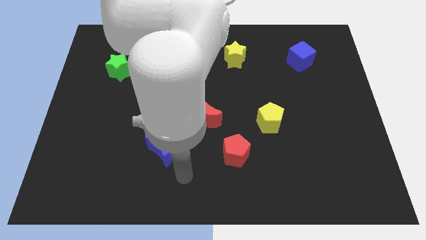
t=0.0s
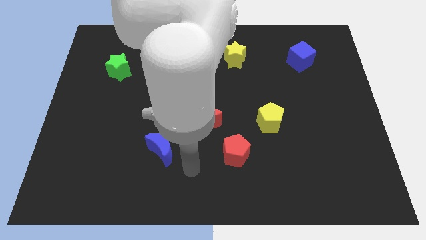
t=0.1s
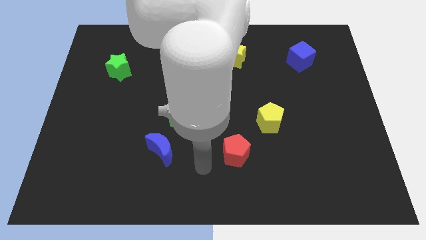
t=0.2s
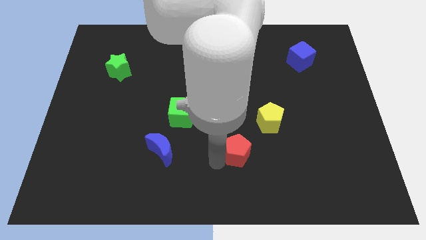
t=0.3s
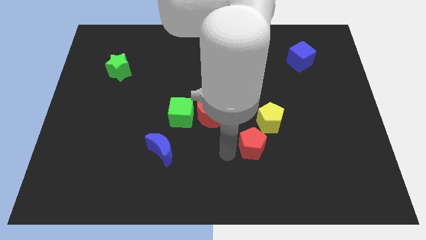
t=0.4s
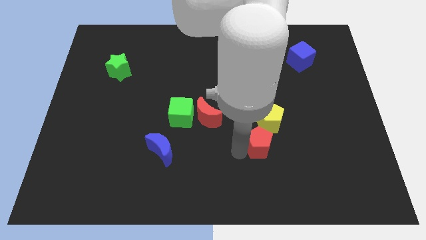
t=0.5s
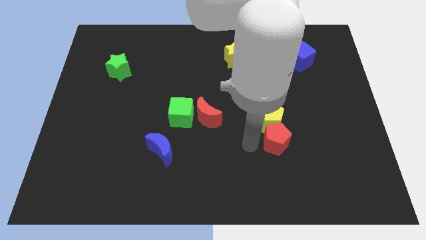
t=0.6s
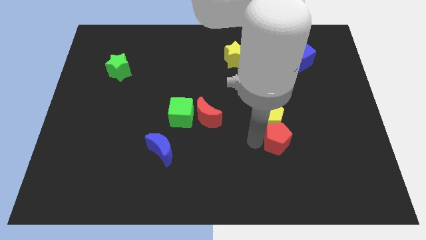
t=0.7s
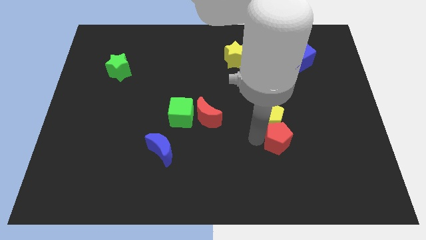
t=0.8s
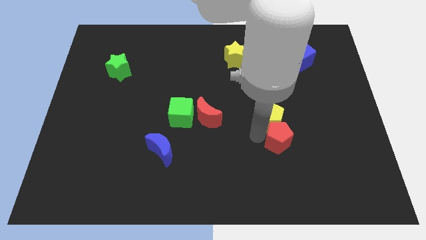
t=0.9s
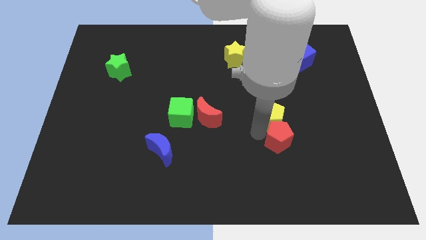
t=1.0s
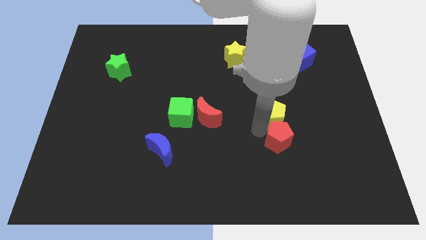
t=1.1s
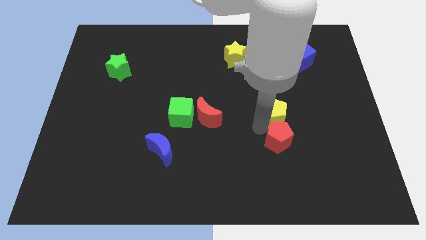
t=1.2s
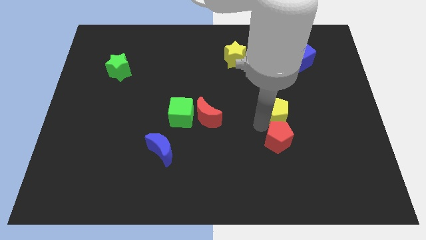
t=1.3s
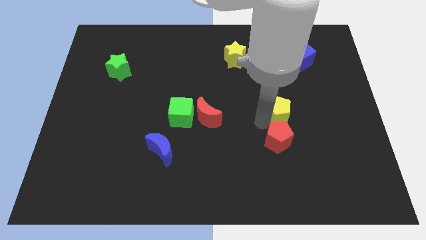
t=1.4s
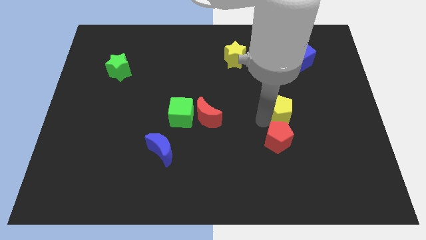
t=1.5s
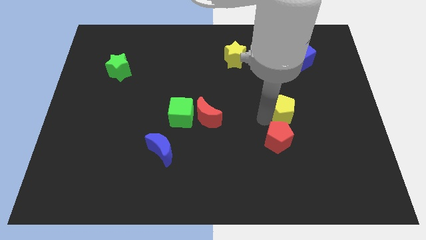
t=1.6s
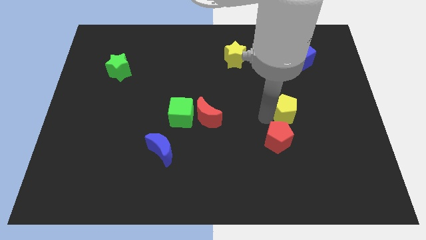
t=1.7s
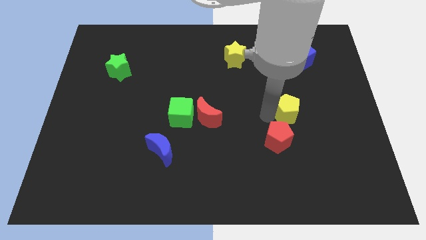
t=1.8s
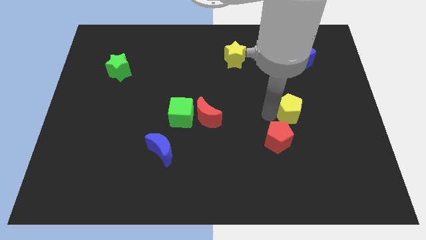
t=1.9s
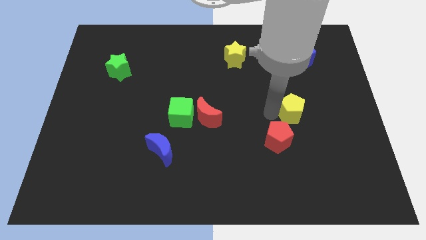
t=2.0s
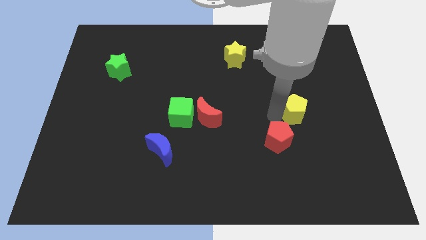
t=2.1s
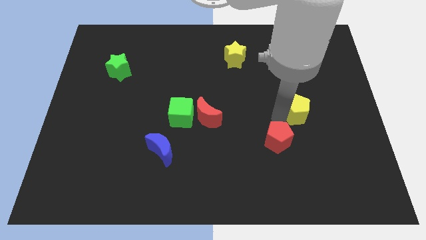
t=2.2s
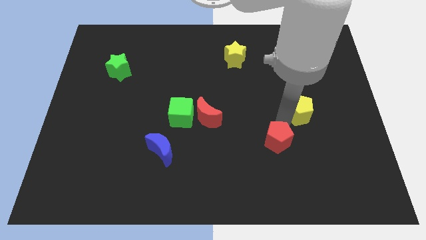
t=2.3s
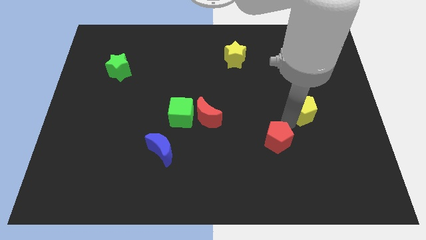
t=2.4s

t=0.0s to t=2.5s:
slightly slide the yellow pentagon up and then to the right

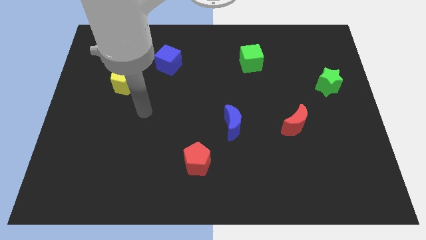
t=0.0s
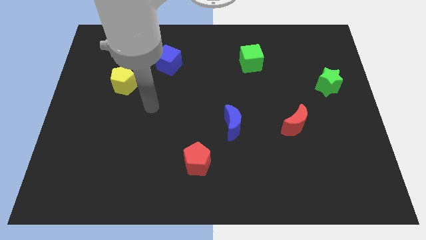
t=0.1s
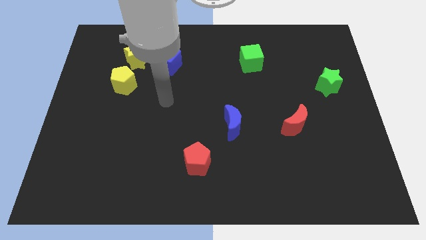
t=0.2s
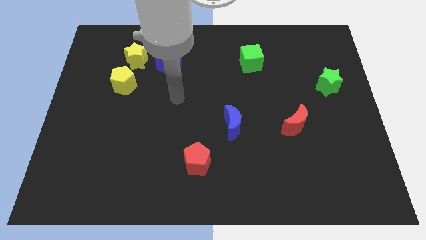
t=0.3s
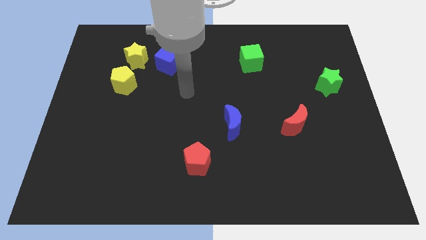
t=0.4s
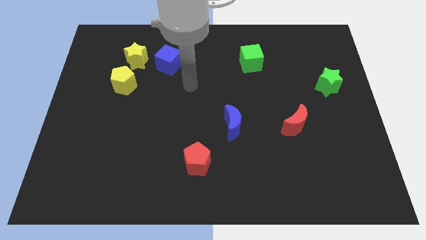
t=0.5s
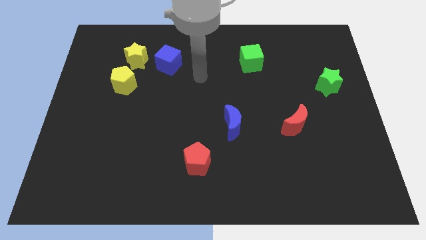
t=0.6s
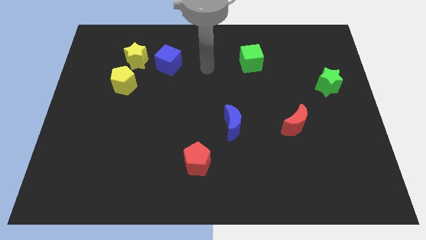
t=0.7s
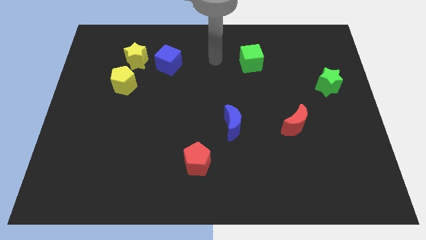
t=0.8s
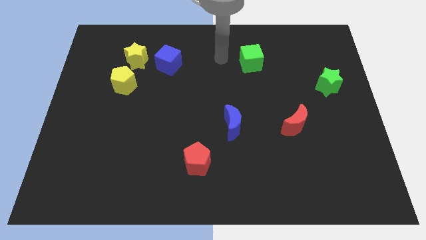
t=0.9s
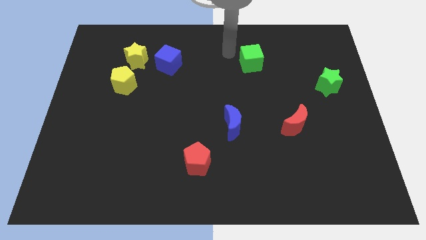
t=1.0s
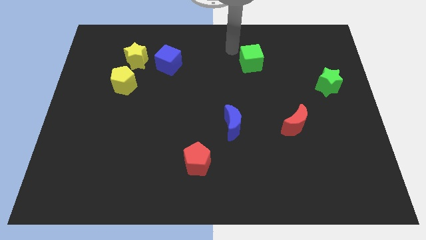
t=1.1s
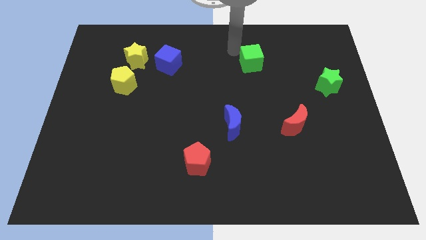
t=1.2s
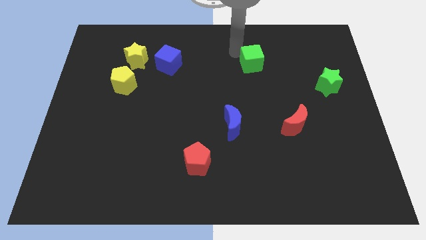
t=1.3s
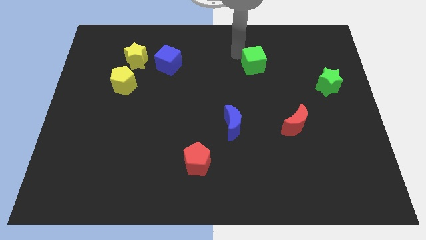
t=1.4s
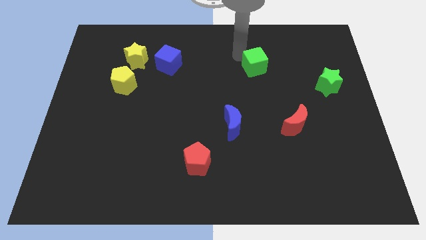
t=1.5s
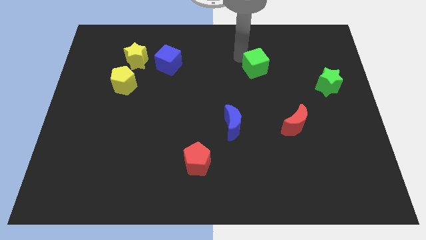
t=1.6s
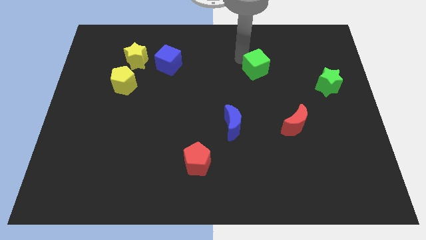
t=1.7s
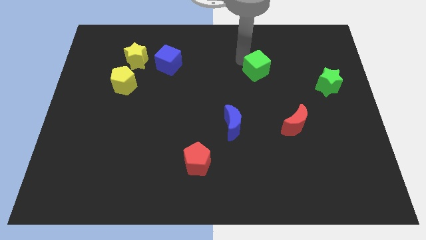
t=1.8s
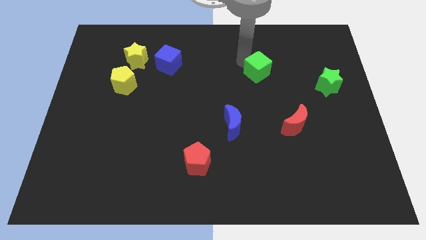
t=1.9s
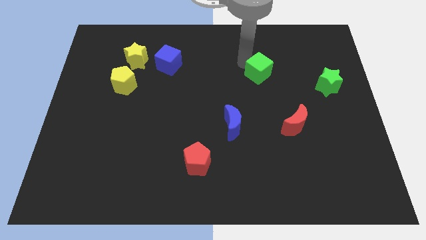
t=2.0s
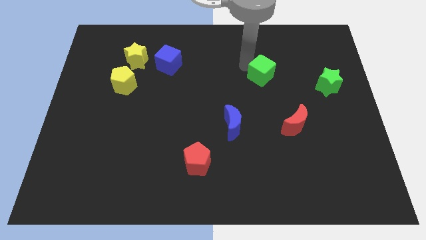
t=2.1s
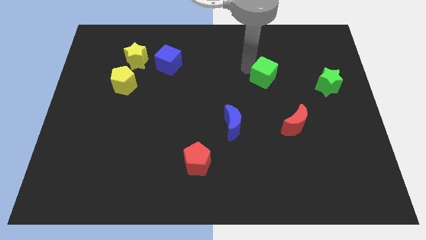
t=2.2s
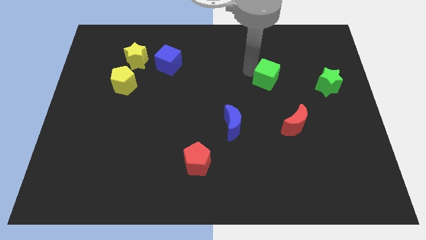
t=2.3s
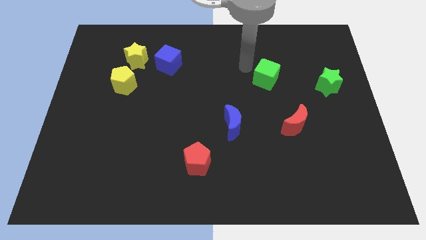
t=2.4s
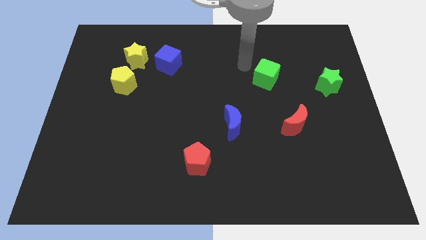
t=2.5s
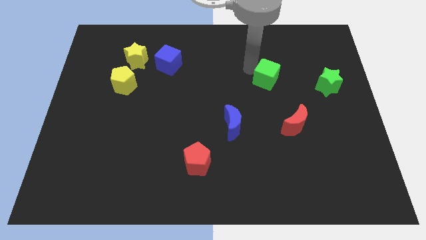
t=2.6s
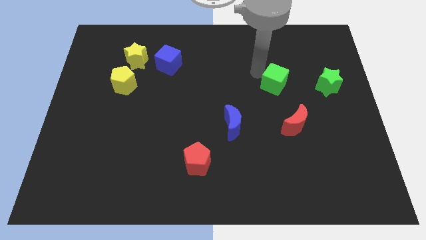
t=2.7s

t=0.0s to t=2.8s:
slightly slide the green cube down and then right

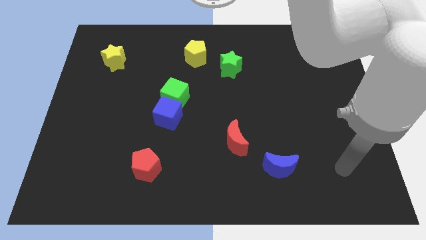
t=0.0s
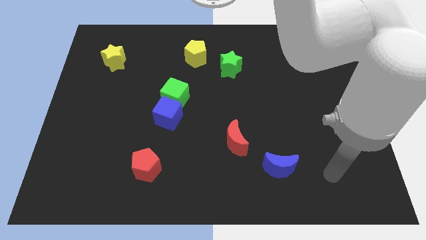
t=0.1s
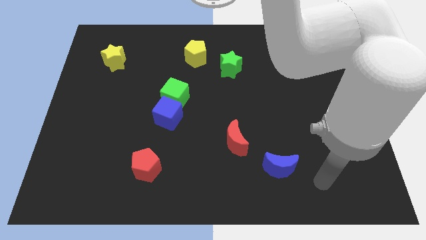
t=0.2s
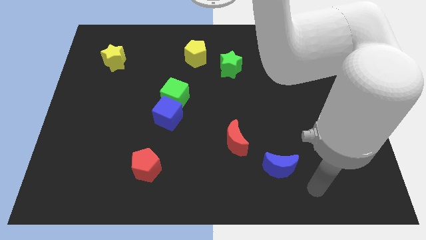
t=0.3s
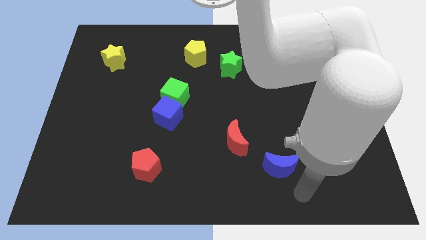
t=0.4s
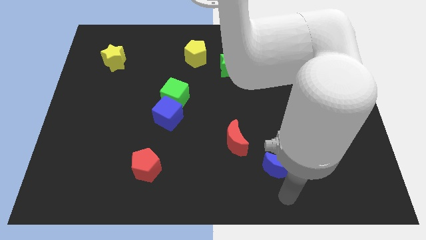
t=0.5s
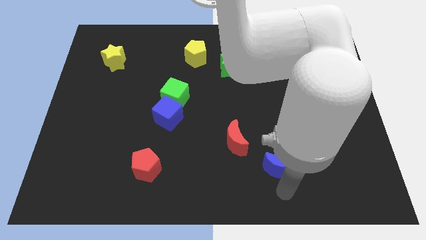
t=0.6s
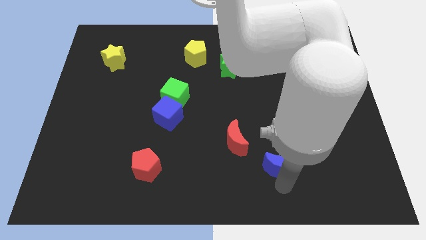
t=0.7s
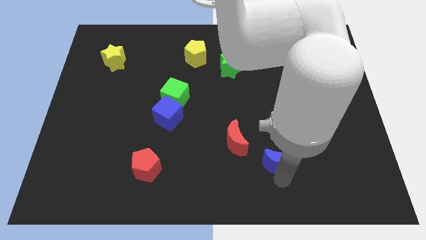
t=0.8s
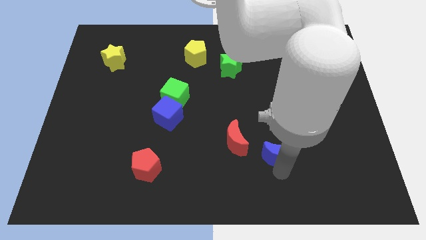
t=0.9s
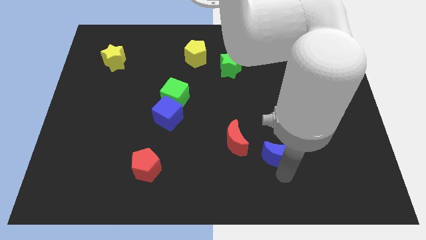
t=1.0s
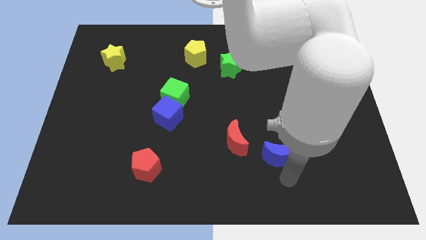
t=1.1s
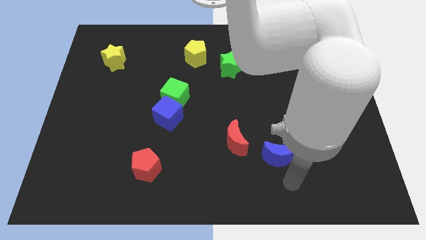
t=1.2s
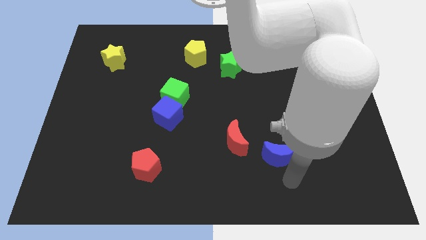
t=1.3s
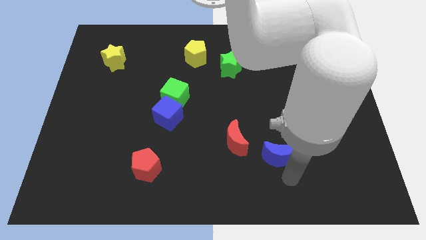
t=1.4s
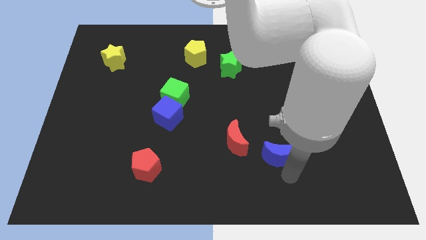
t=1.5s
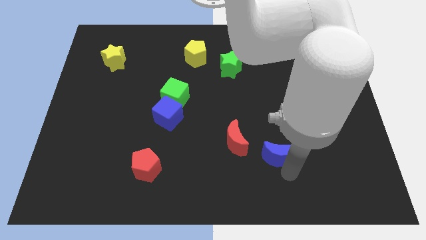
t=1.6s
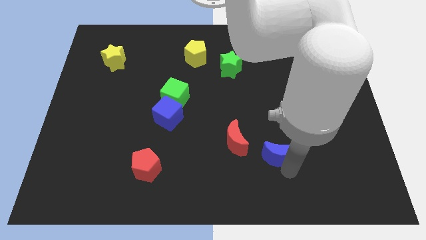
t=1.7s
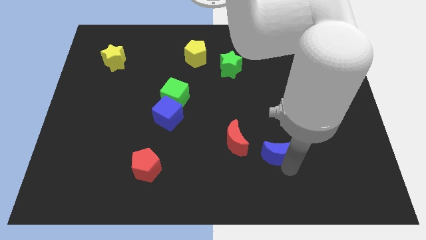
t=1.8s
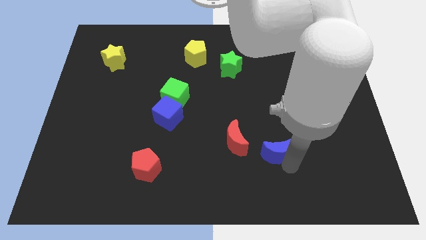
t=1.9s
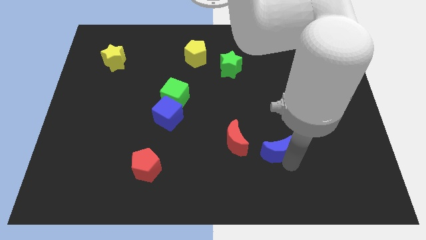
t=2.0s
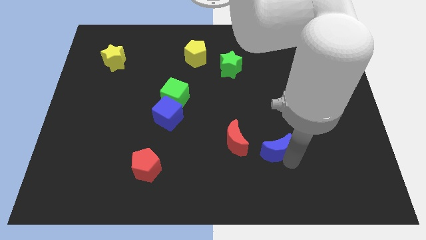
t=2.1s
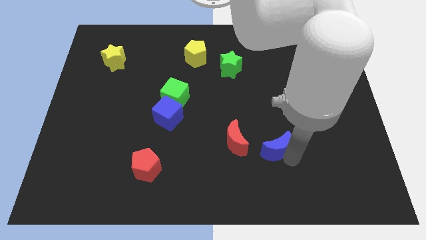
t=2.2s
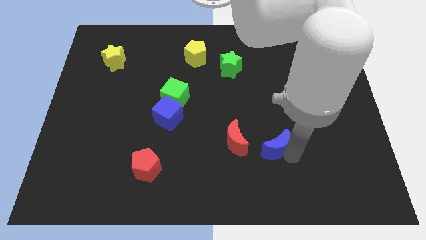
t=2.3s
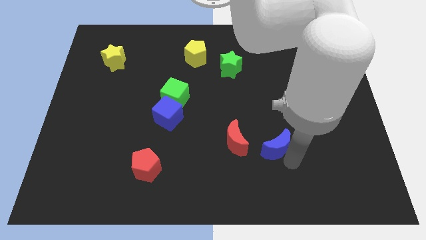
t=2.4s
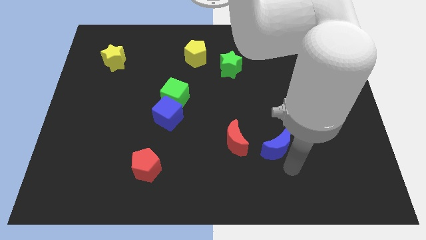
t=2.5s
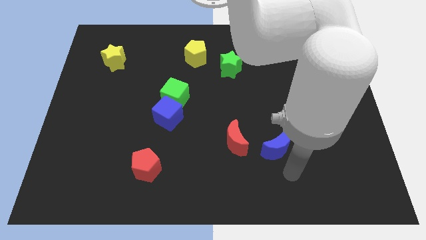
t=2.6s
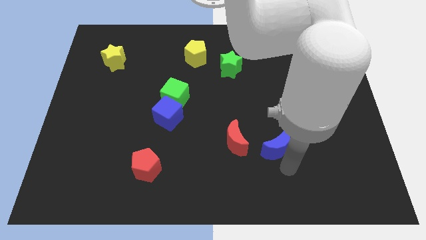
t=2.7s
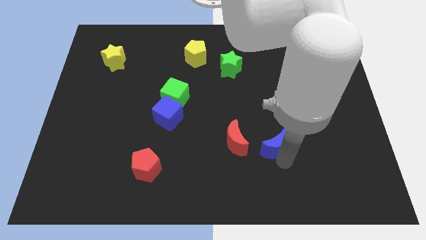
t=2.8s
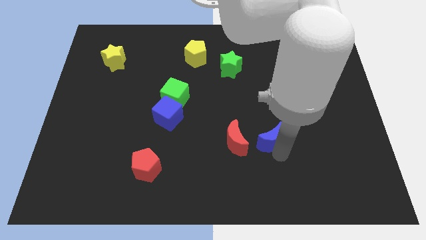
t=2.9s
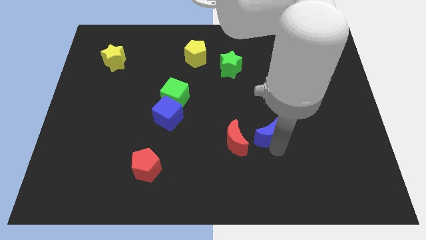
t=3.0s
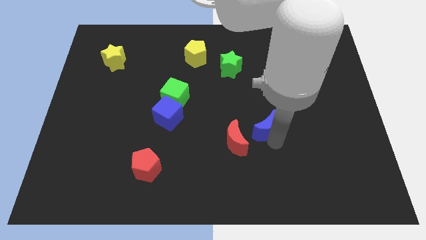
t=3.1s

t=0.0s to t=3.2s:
slightly slide the blue moon diagonally upwards and left
